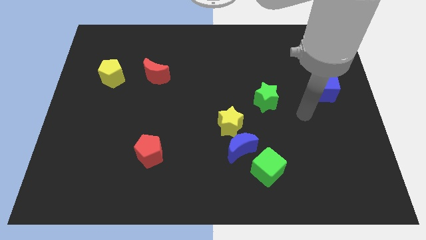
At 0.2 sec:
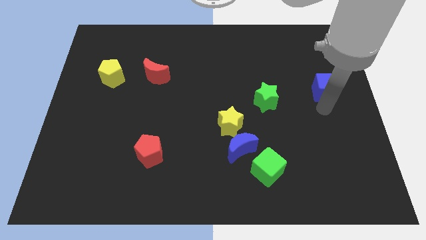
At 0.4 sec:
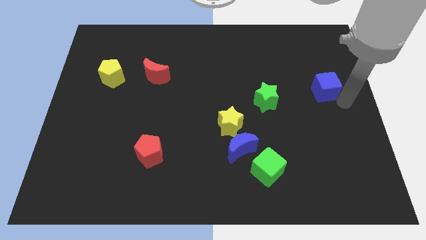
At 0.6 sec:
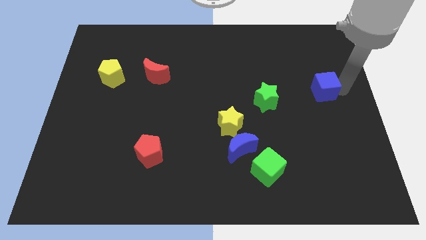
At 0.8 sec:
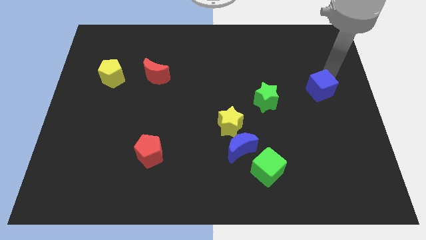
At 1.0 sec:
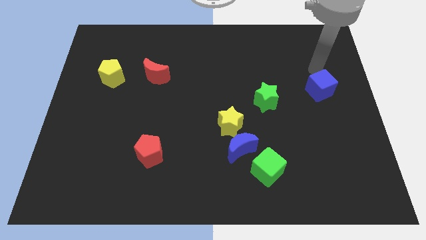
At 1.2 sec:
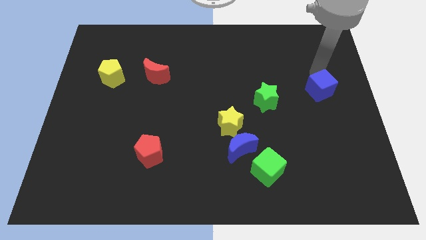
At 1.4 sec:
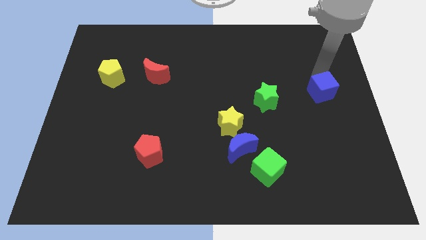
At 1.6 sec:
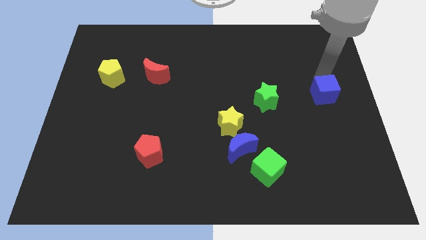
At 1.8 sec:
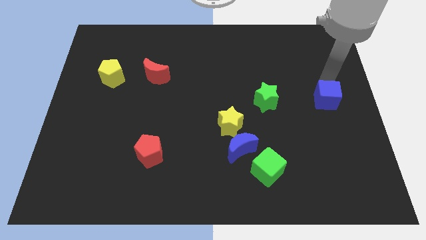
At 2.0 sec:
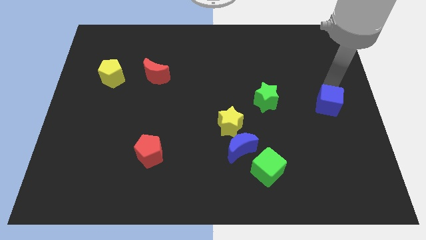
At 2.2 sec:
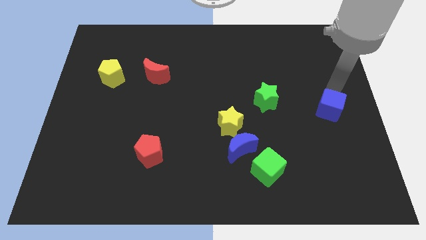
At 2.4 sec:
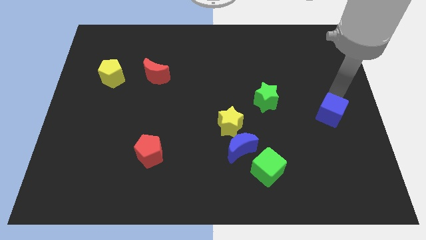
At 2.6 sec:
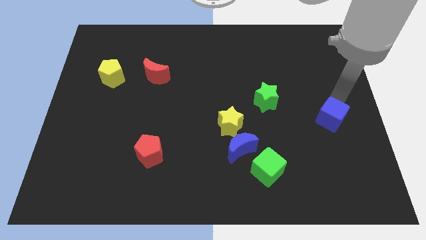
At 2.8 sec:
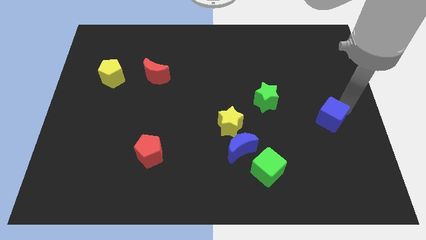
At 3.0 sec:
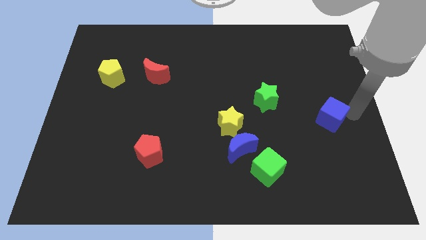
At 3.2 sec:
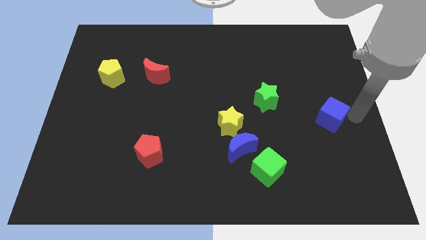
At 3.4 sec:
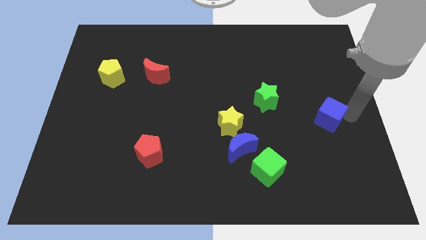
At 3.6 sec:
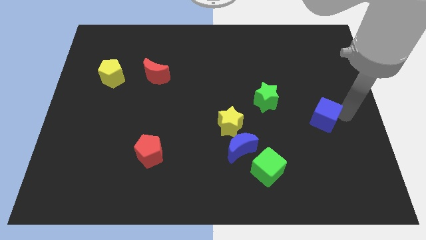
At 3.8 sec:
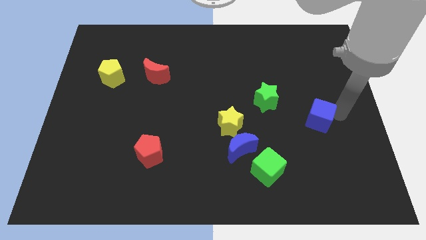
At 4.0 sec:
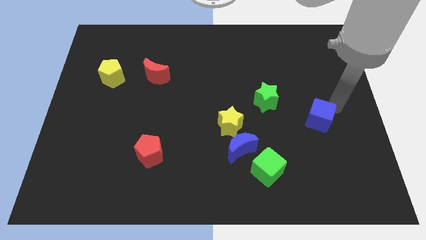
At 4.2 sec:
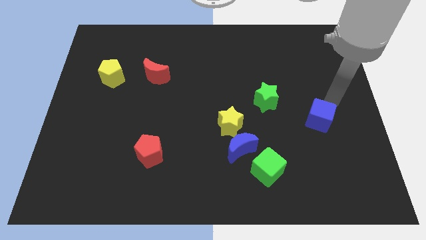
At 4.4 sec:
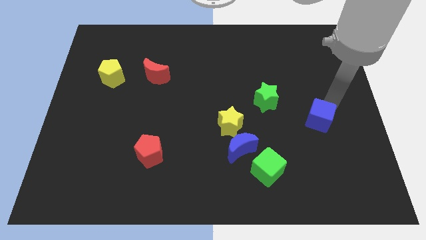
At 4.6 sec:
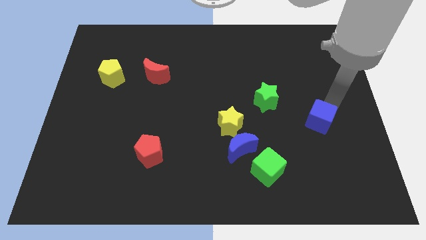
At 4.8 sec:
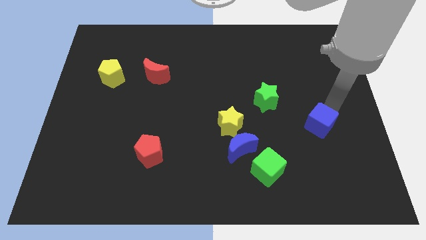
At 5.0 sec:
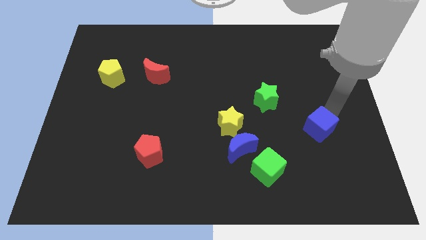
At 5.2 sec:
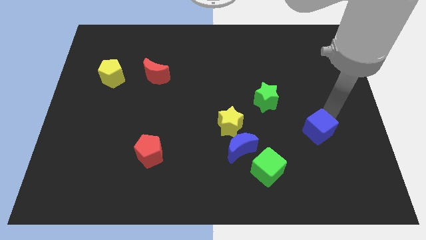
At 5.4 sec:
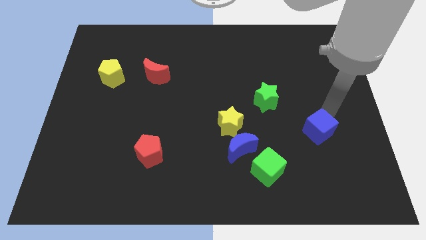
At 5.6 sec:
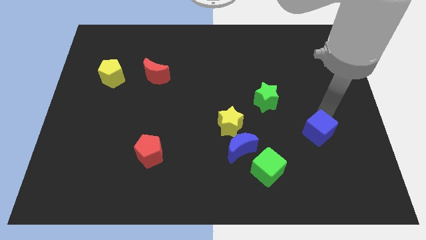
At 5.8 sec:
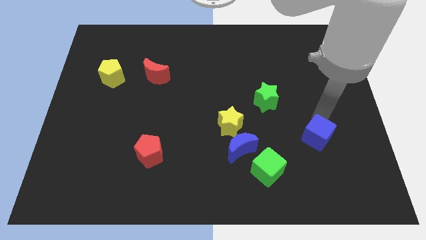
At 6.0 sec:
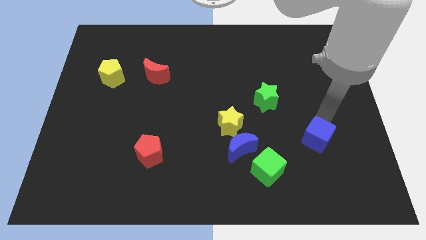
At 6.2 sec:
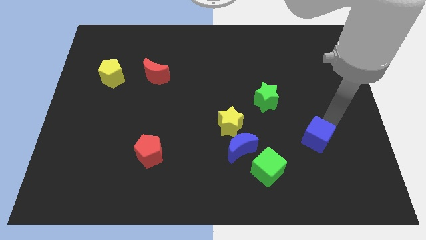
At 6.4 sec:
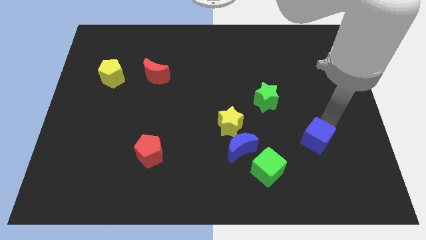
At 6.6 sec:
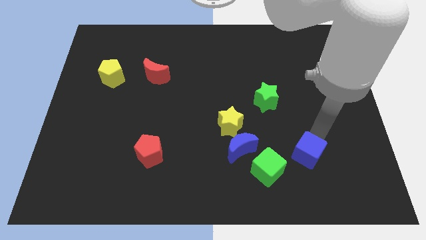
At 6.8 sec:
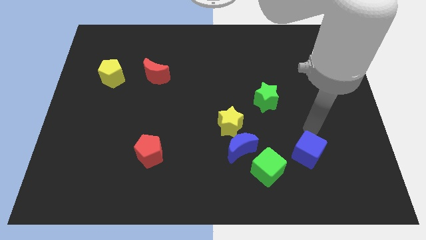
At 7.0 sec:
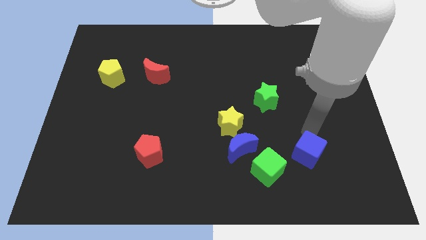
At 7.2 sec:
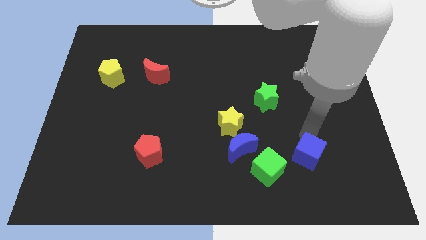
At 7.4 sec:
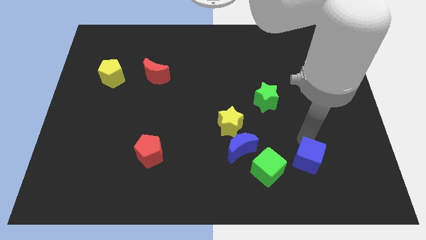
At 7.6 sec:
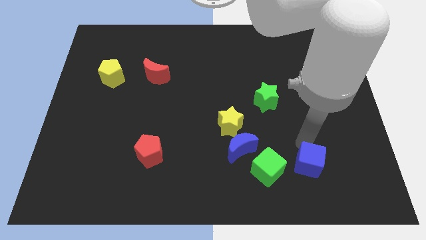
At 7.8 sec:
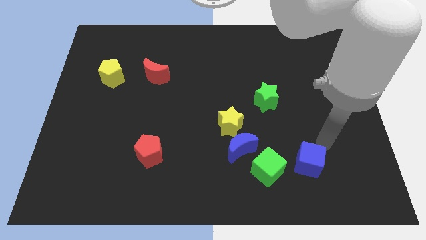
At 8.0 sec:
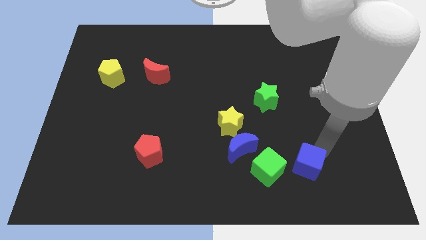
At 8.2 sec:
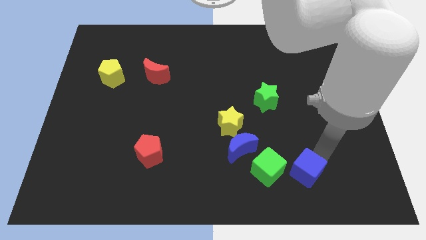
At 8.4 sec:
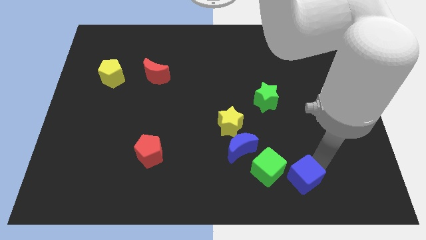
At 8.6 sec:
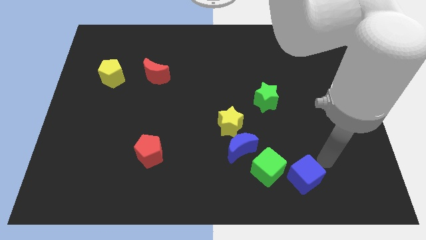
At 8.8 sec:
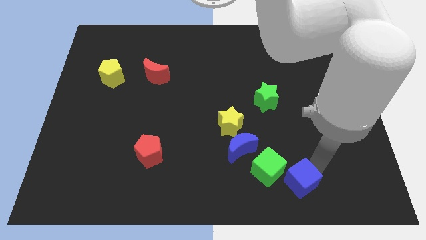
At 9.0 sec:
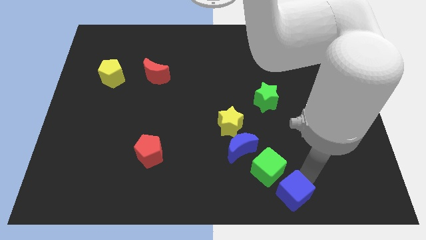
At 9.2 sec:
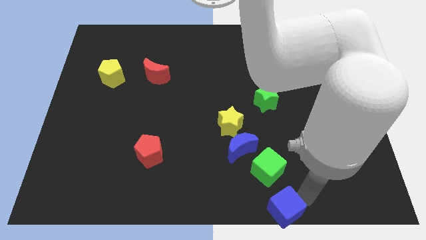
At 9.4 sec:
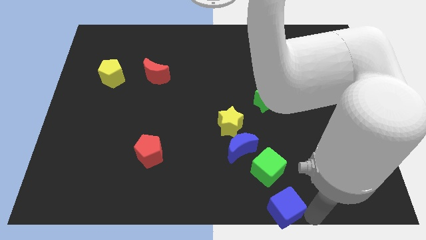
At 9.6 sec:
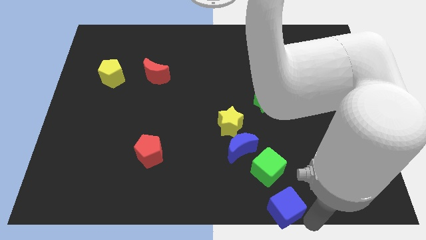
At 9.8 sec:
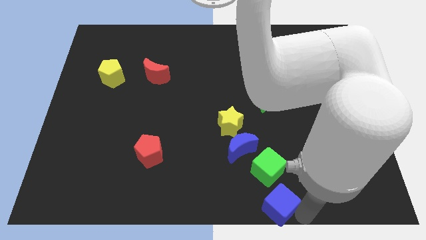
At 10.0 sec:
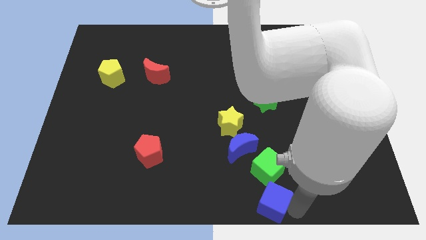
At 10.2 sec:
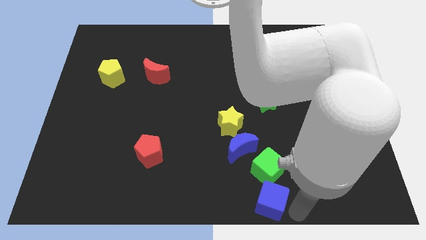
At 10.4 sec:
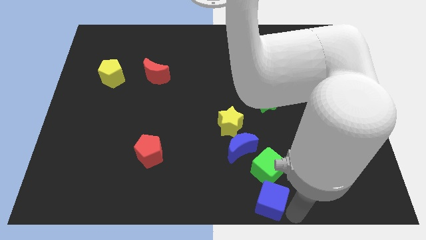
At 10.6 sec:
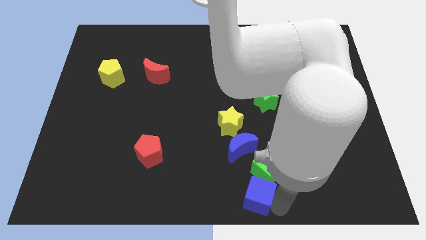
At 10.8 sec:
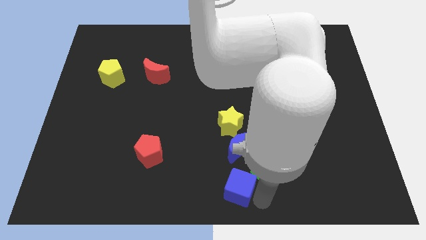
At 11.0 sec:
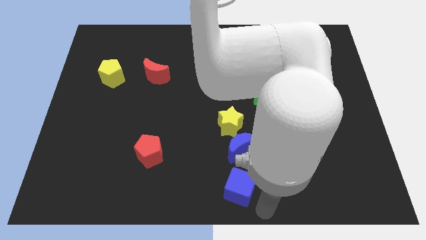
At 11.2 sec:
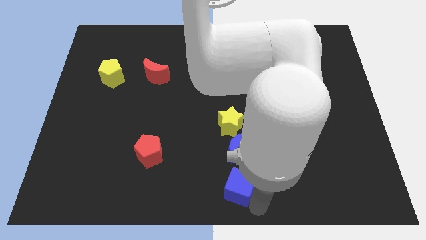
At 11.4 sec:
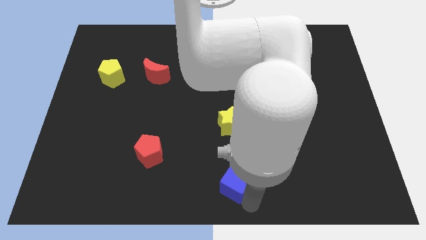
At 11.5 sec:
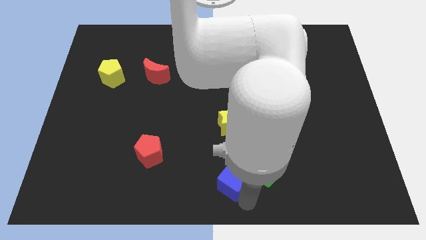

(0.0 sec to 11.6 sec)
push the blue cube diagonally down and to the left of the blue moon

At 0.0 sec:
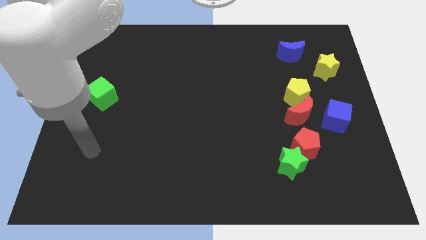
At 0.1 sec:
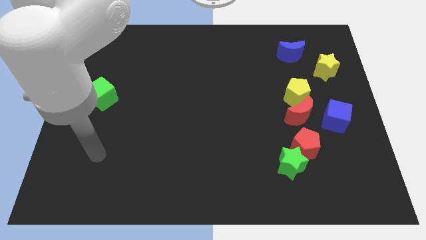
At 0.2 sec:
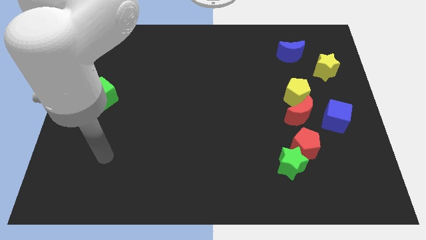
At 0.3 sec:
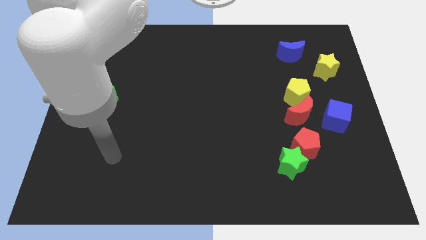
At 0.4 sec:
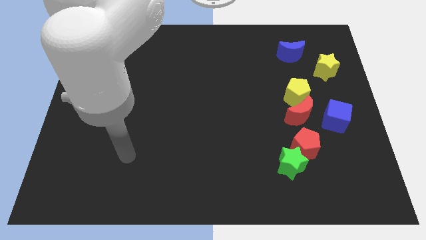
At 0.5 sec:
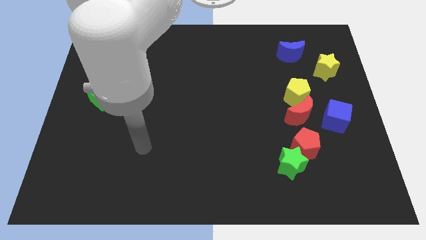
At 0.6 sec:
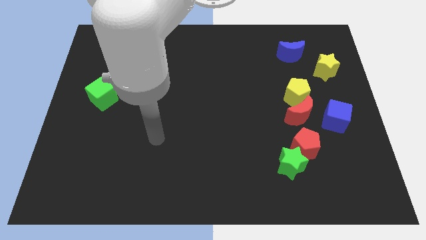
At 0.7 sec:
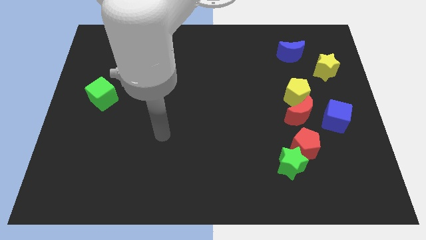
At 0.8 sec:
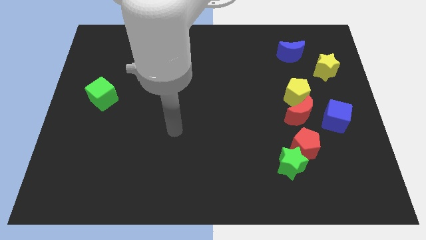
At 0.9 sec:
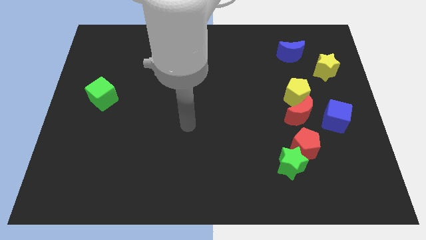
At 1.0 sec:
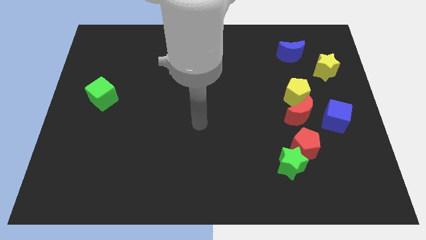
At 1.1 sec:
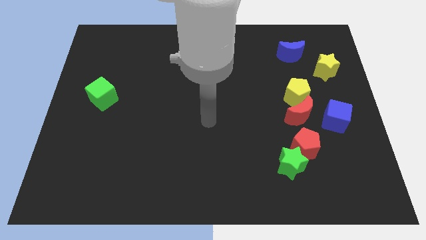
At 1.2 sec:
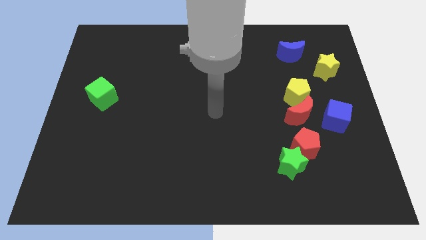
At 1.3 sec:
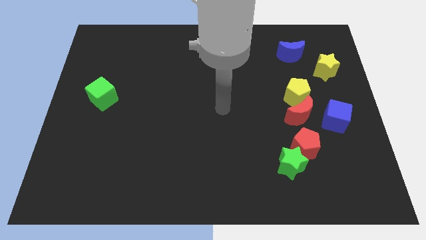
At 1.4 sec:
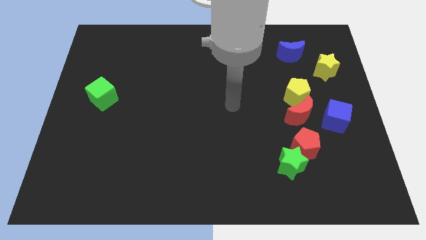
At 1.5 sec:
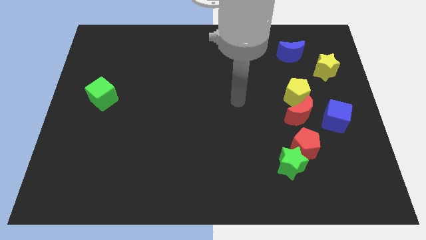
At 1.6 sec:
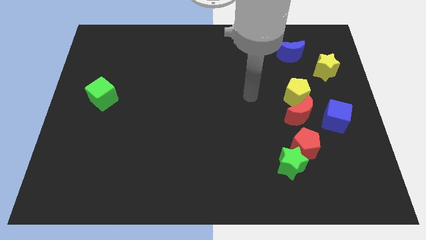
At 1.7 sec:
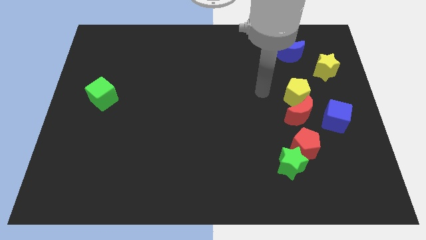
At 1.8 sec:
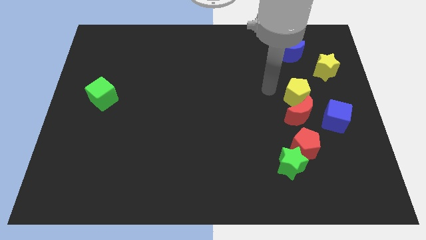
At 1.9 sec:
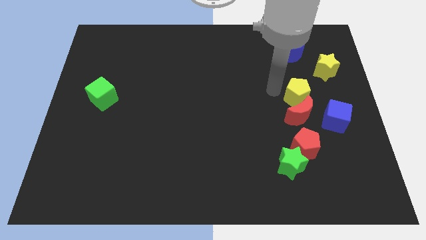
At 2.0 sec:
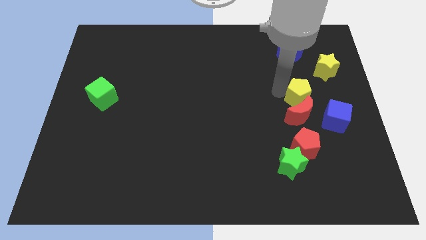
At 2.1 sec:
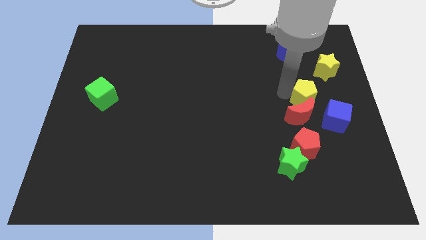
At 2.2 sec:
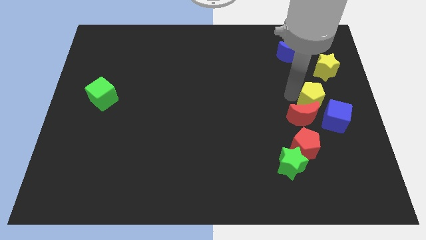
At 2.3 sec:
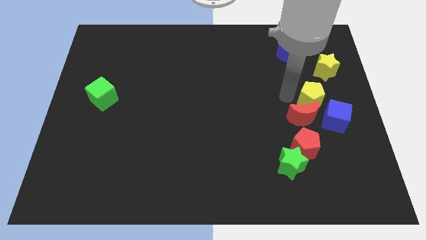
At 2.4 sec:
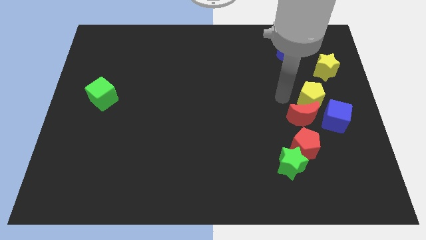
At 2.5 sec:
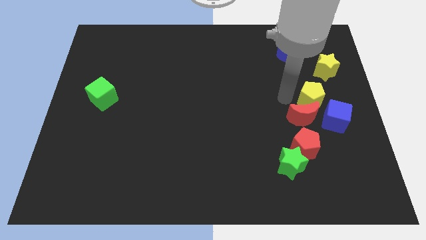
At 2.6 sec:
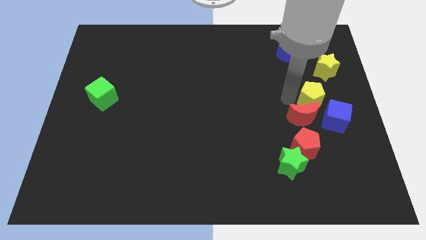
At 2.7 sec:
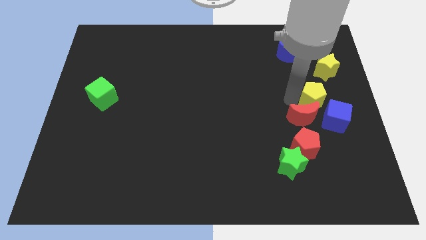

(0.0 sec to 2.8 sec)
slide the yellow pentagon to the bottom side of the yellow star
